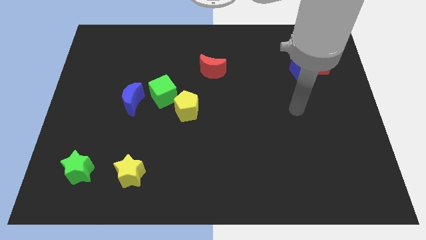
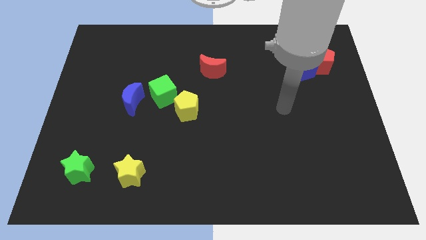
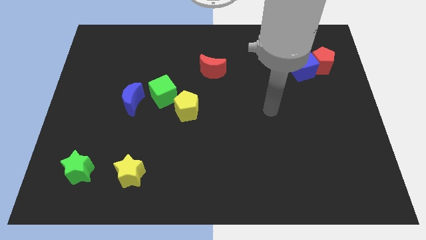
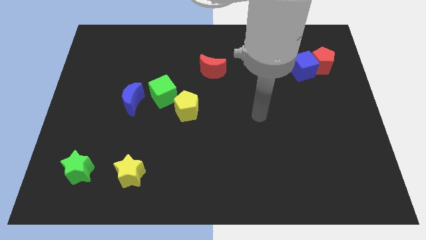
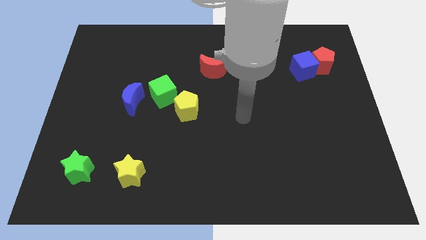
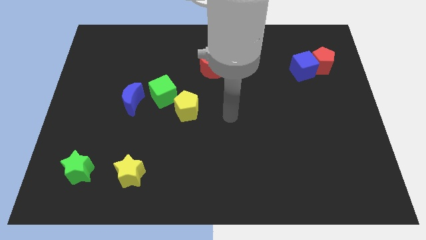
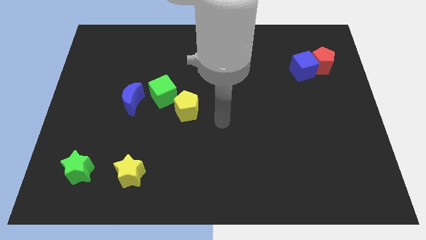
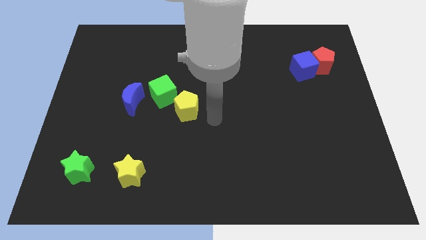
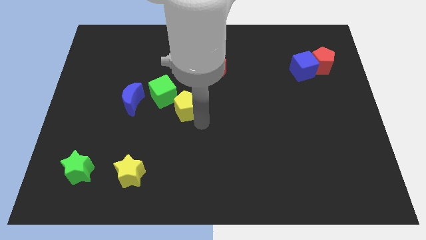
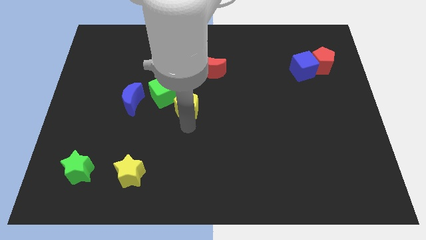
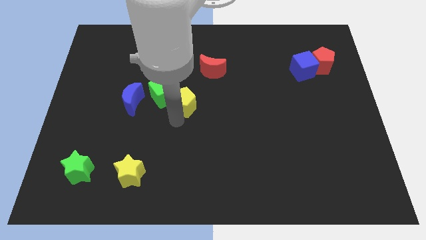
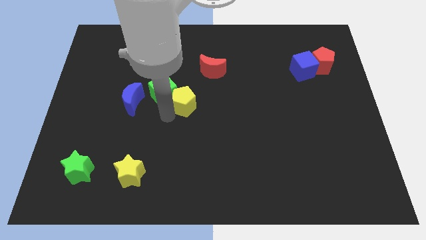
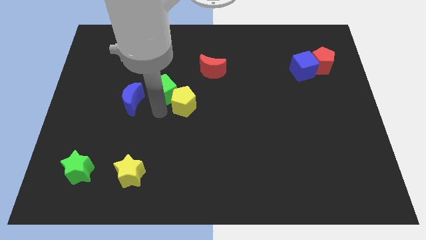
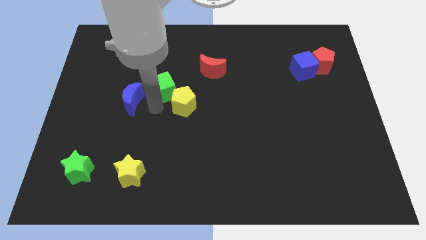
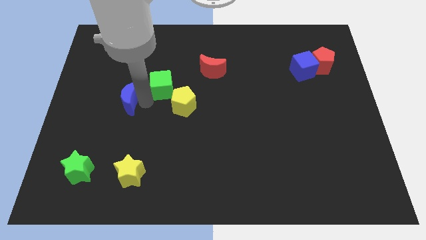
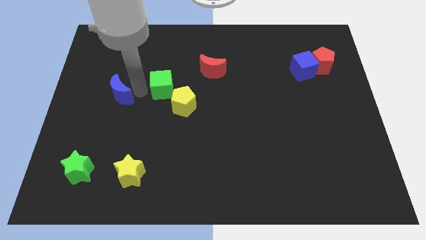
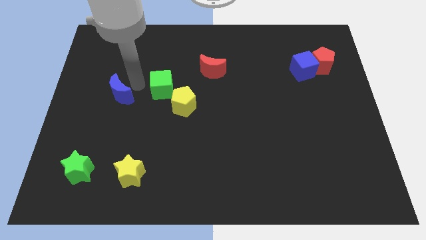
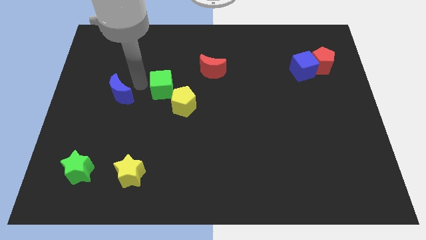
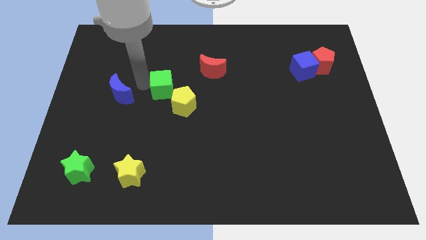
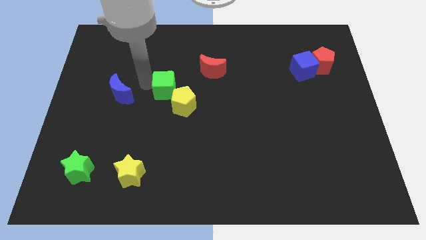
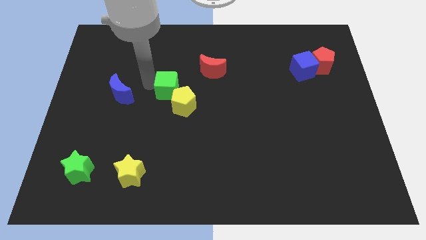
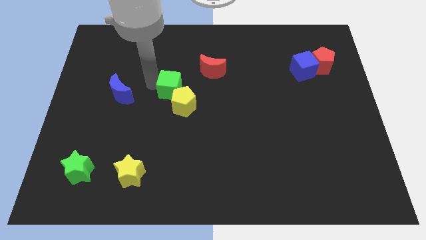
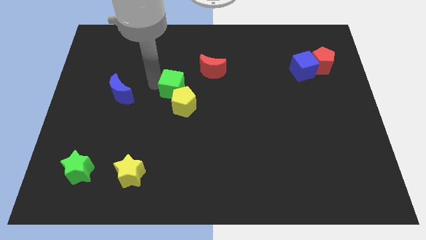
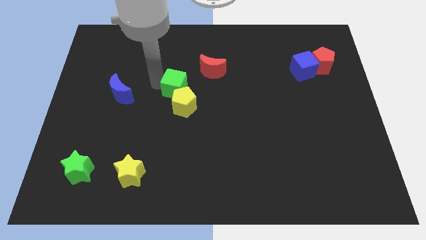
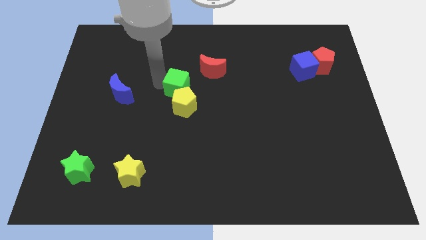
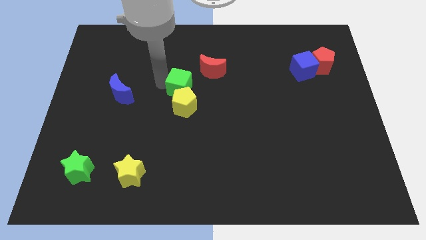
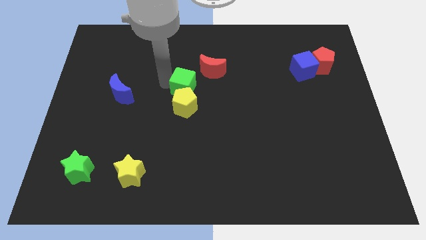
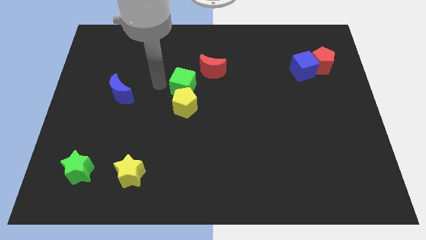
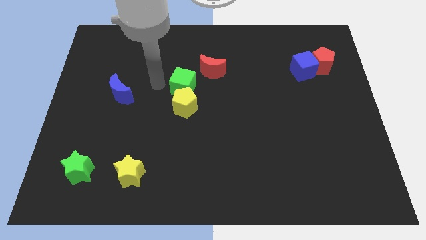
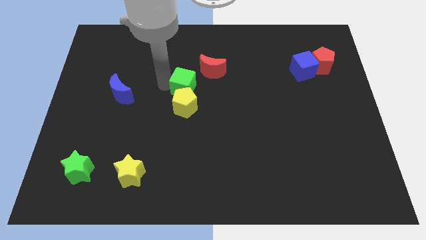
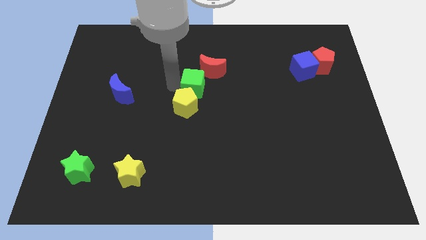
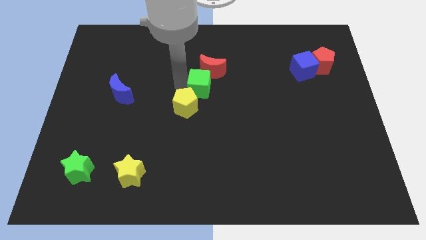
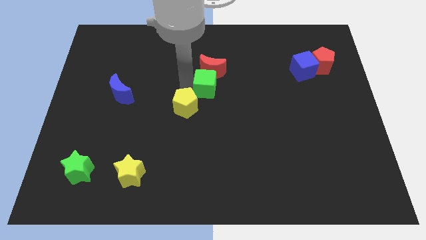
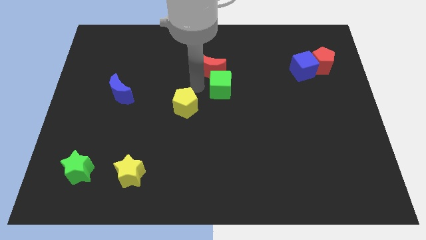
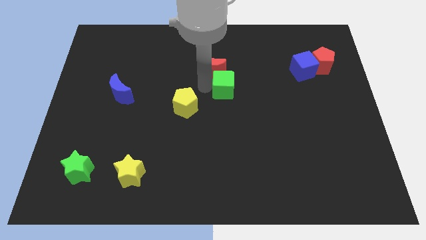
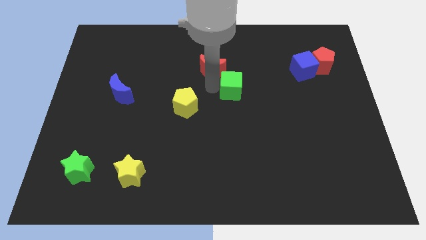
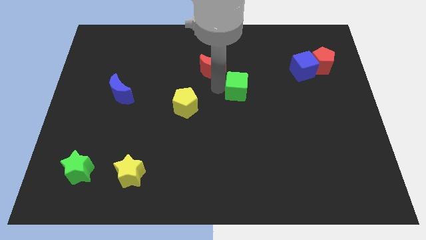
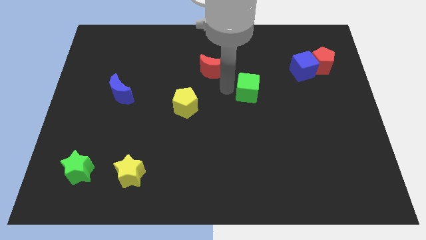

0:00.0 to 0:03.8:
move the green cube right

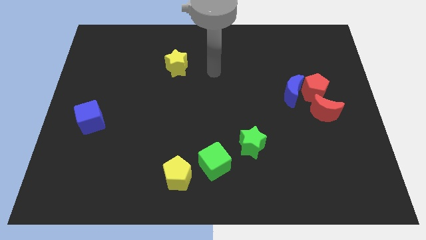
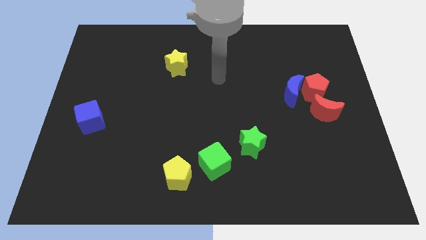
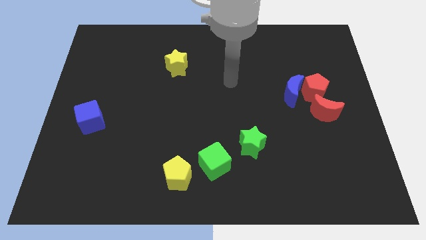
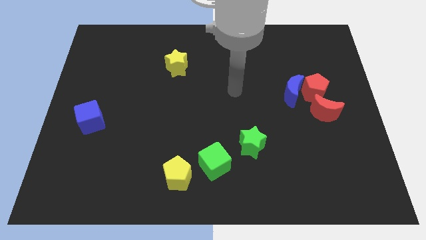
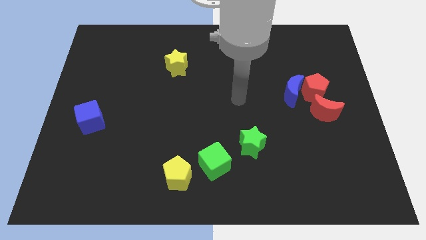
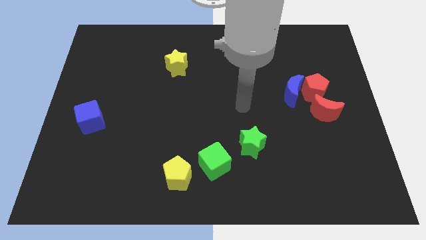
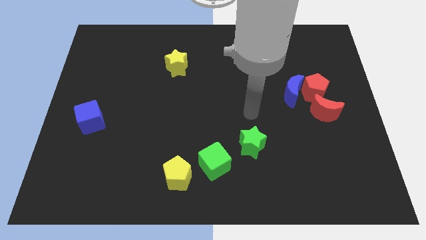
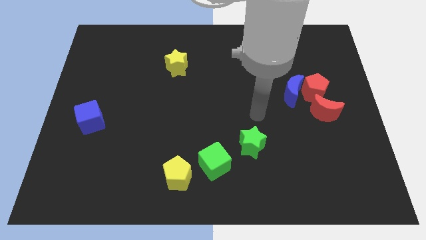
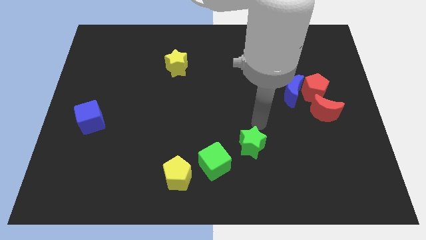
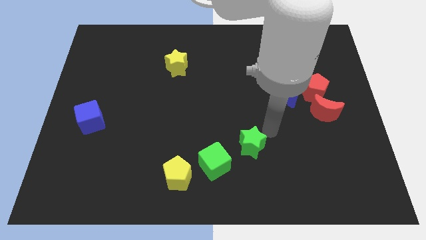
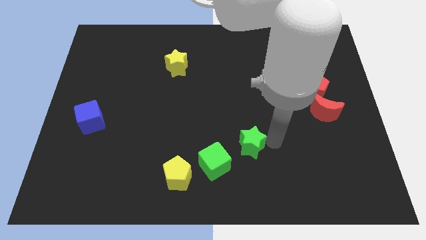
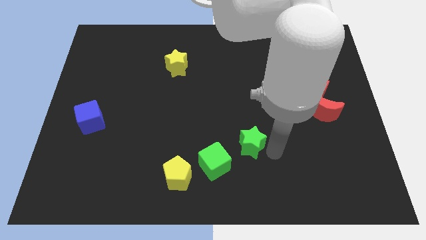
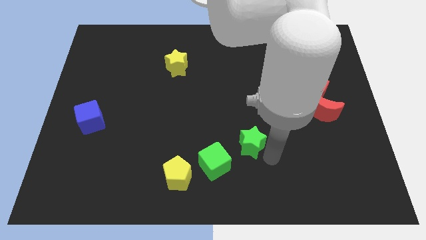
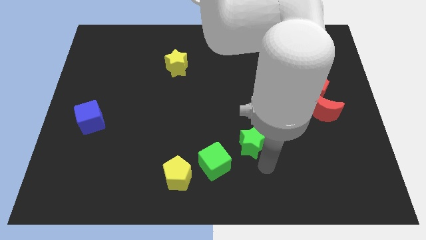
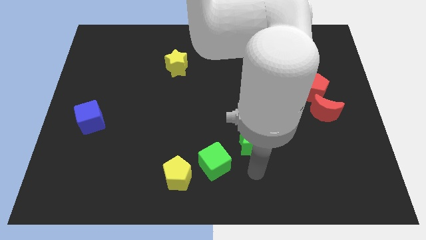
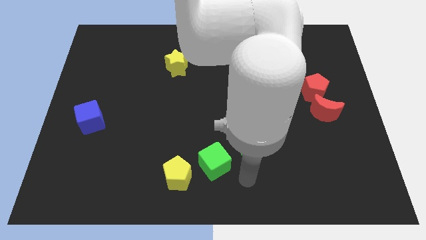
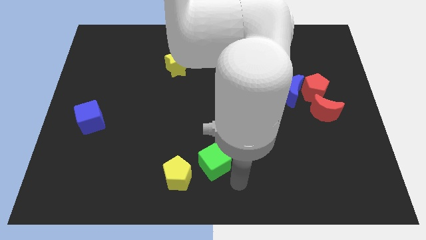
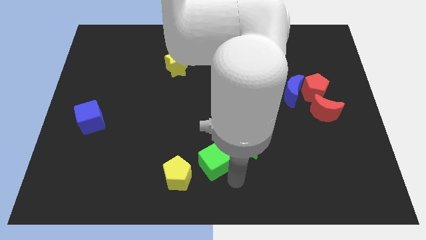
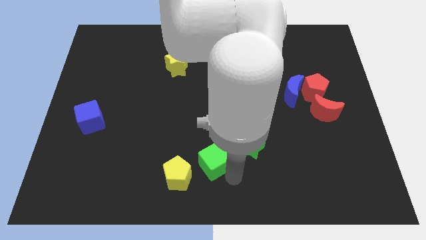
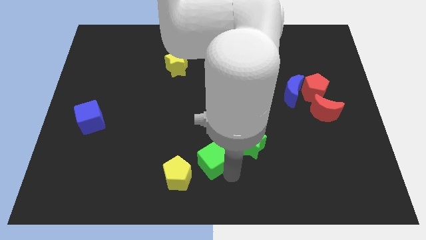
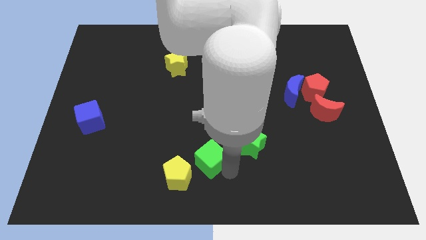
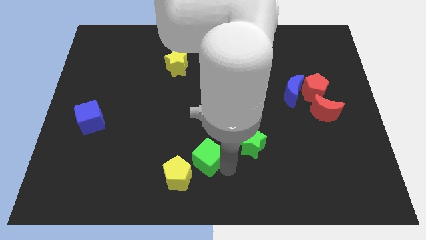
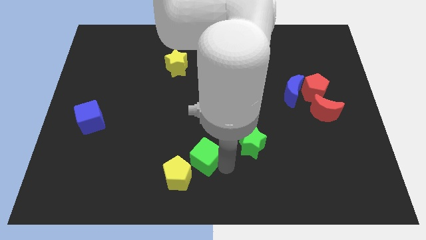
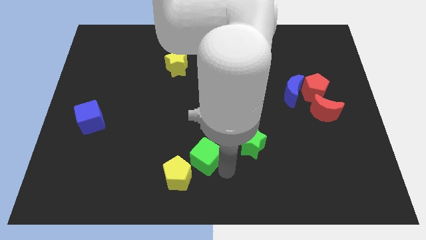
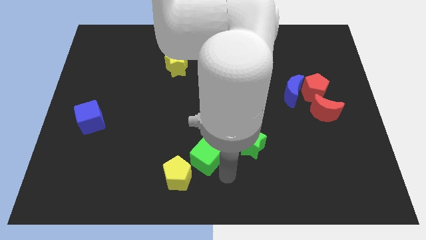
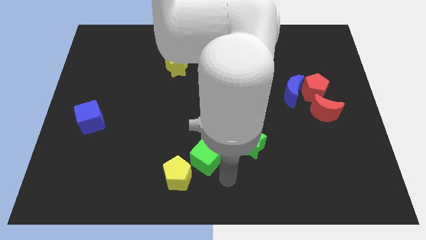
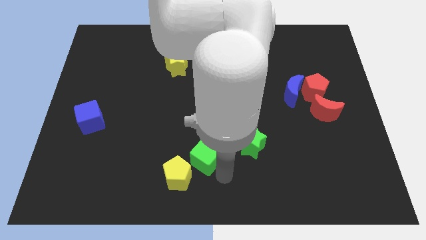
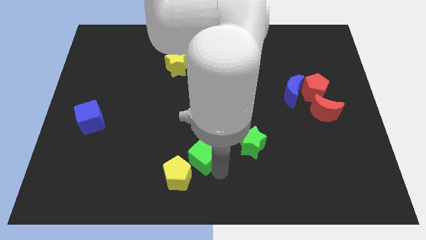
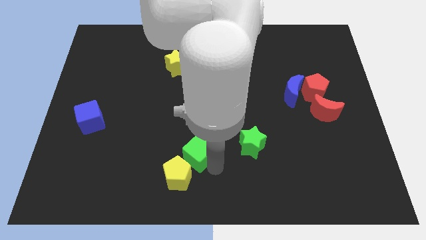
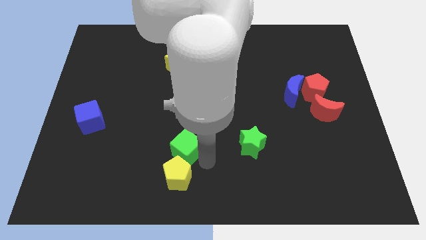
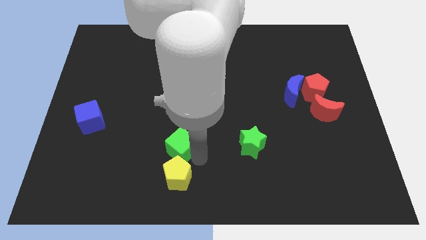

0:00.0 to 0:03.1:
move the green cube a little upwards and then to the left

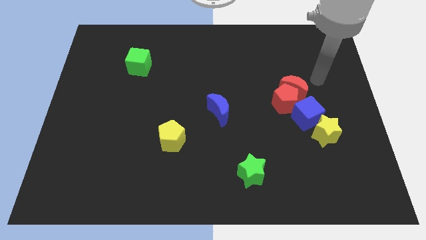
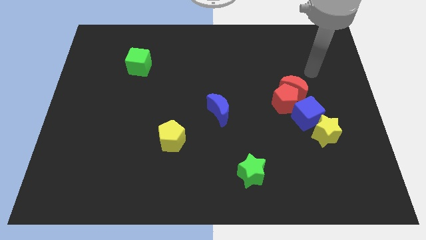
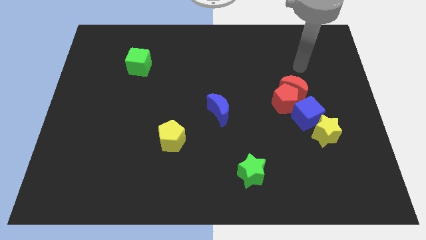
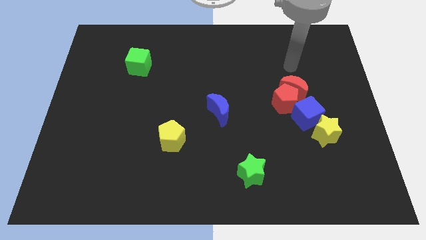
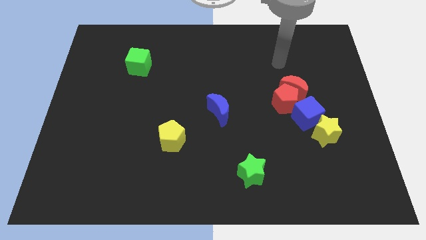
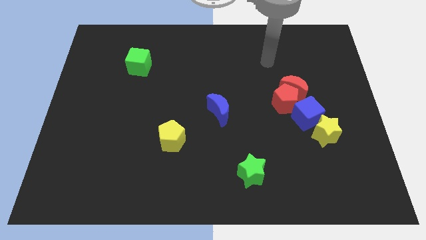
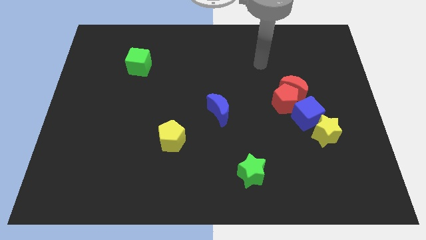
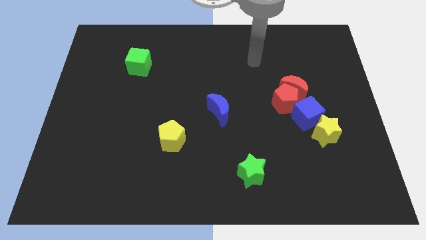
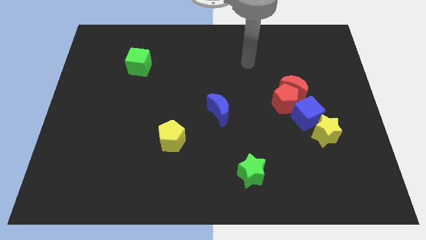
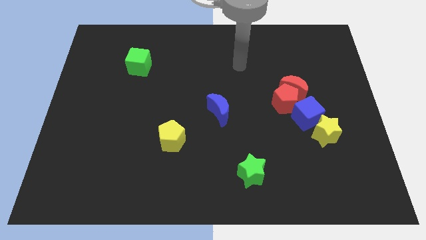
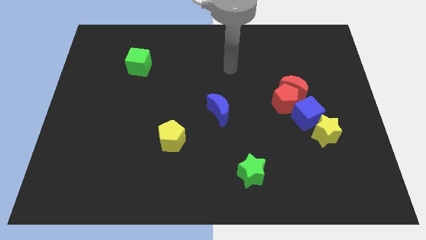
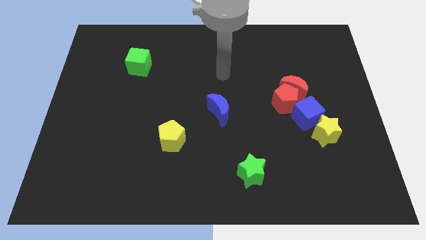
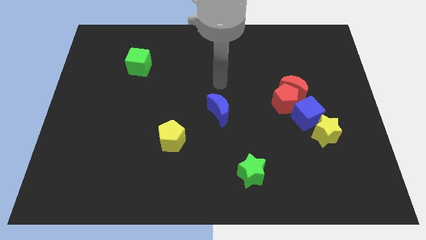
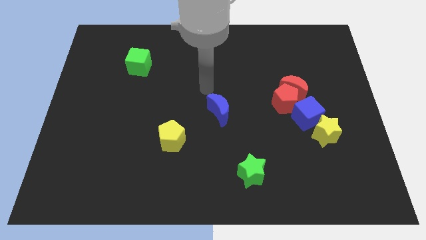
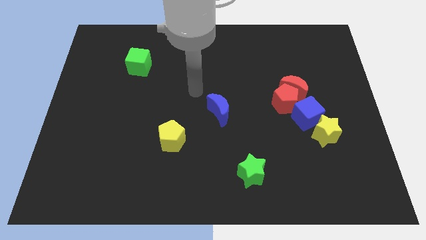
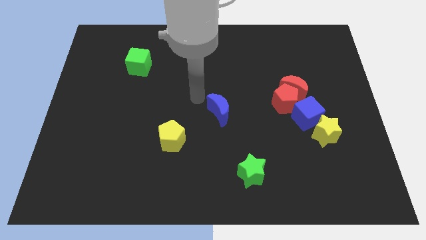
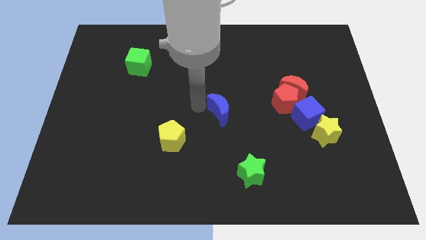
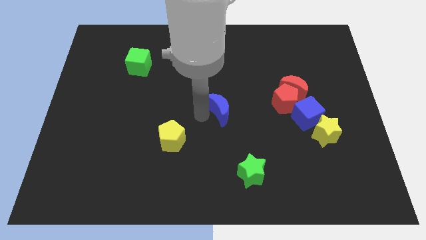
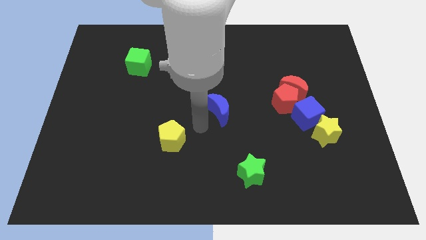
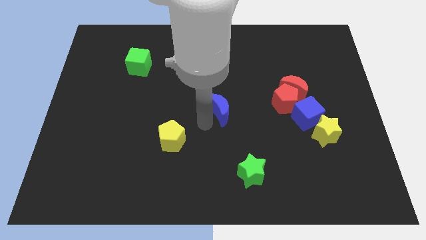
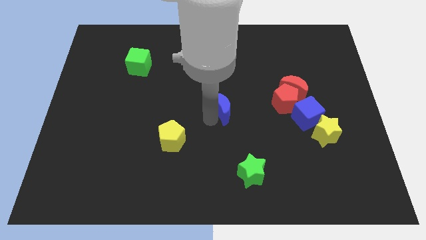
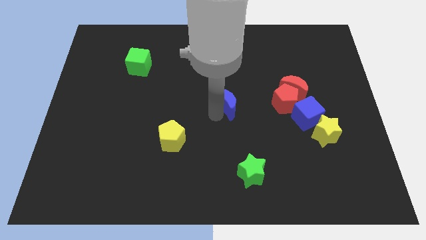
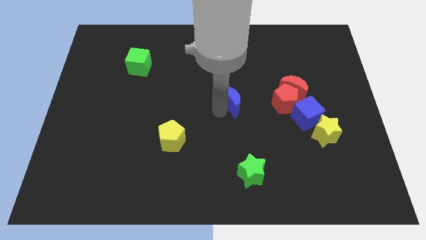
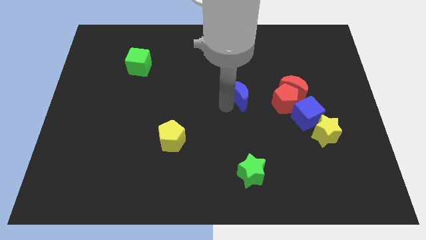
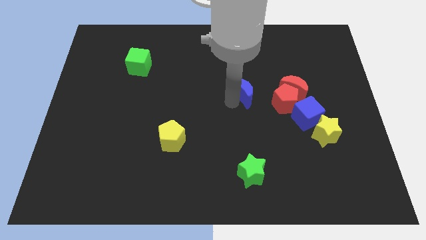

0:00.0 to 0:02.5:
move the blue moon upwards and to the right diagonally slightly
